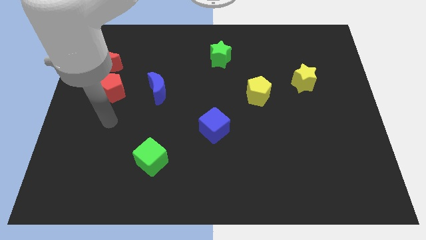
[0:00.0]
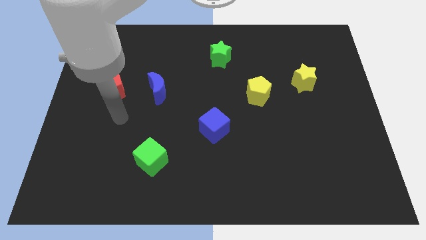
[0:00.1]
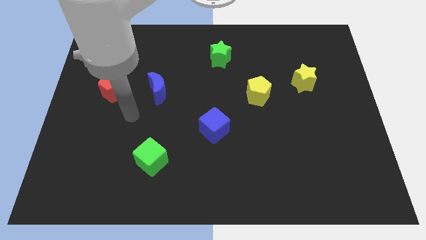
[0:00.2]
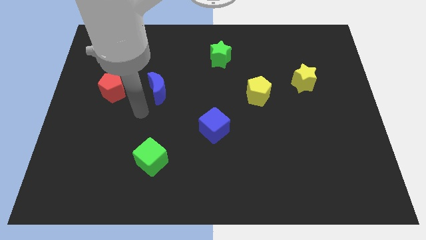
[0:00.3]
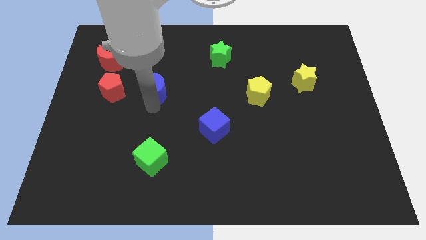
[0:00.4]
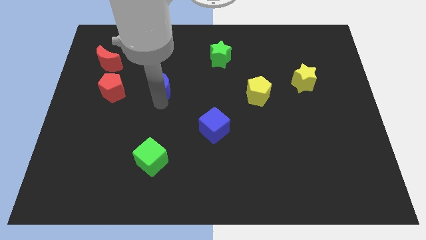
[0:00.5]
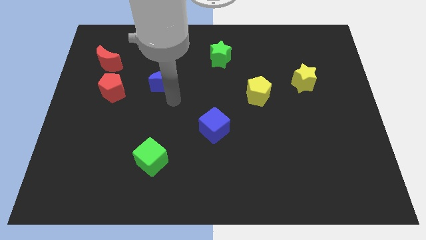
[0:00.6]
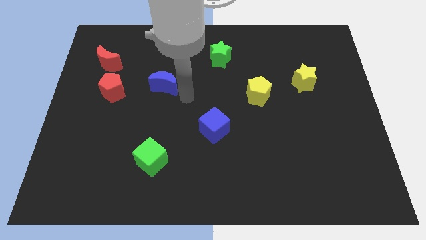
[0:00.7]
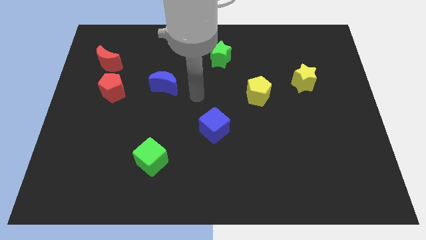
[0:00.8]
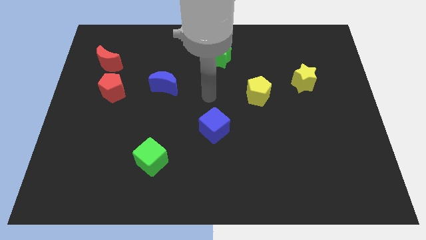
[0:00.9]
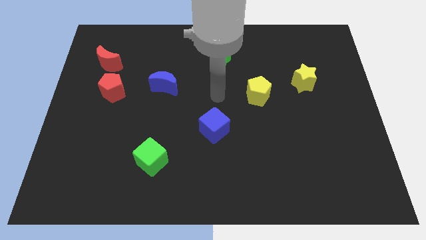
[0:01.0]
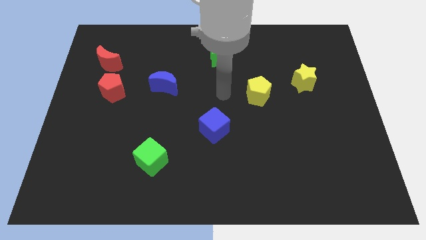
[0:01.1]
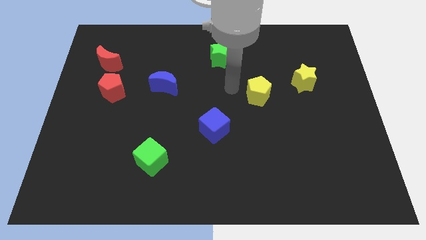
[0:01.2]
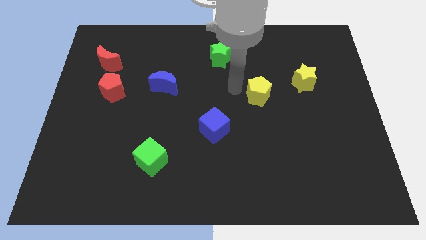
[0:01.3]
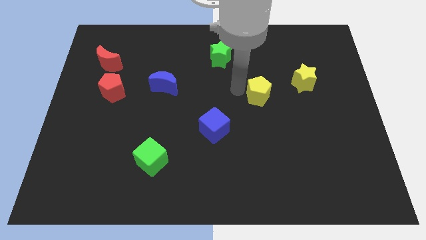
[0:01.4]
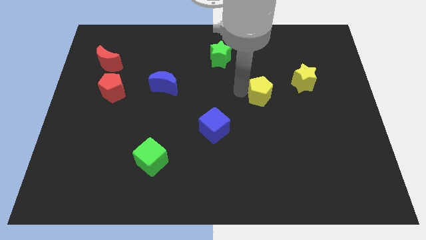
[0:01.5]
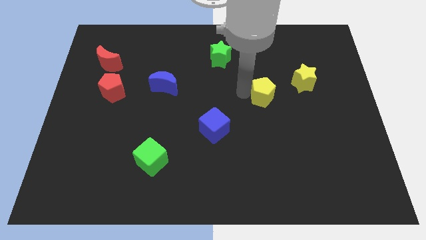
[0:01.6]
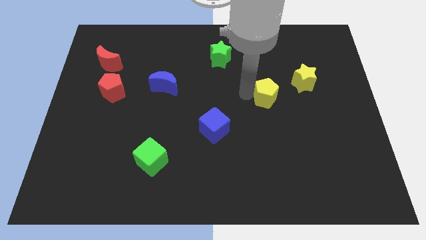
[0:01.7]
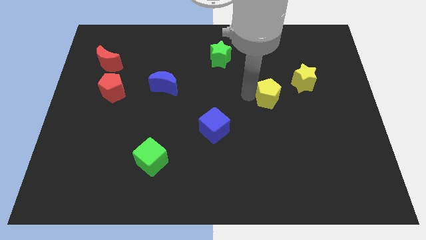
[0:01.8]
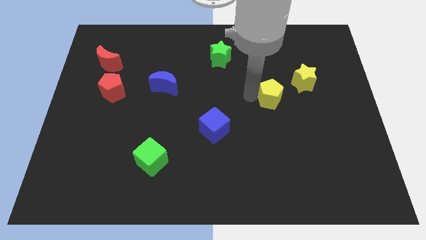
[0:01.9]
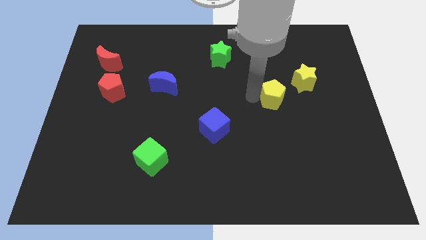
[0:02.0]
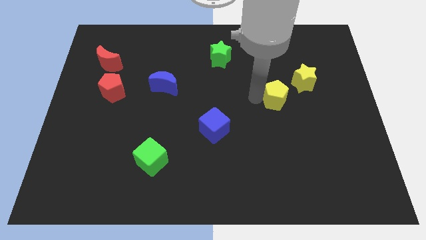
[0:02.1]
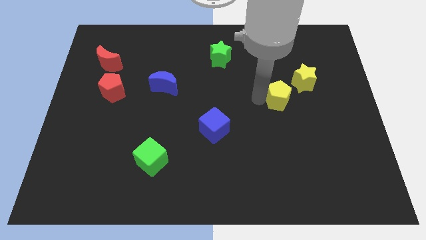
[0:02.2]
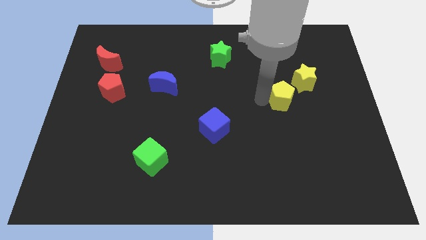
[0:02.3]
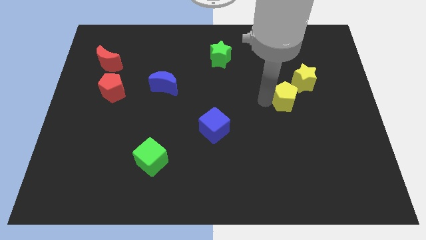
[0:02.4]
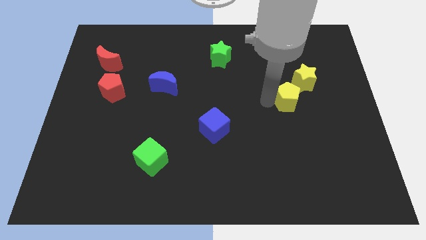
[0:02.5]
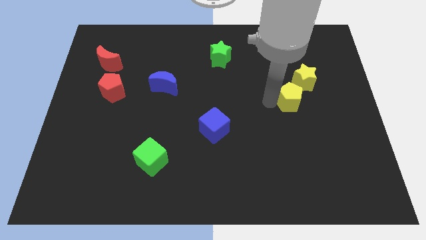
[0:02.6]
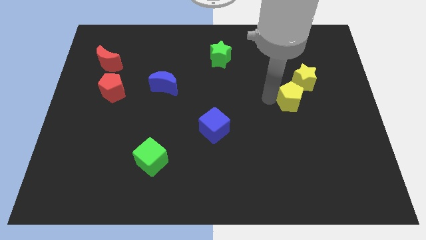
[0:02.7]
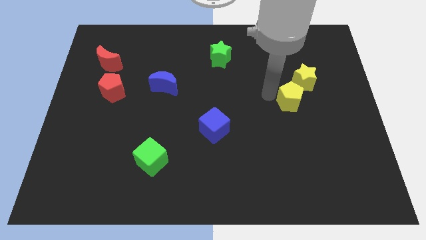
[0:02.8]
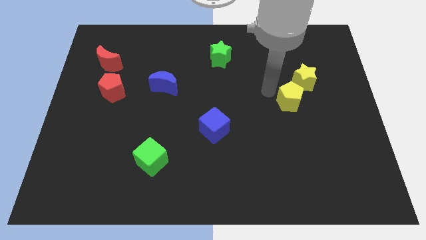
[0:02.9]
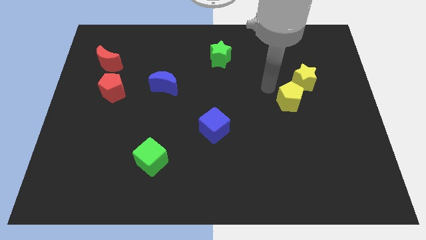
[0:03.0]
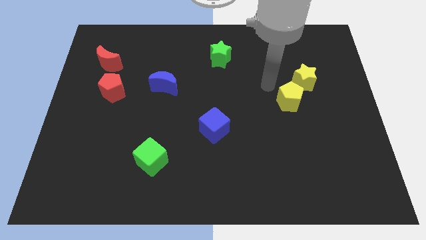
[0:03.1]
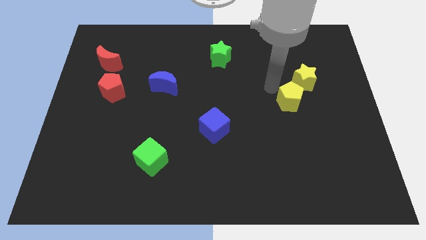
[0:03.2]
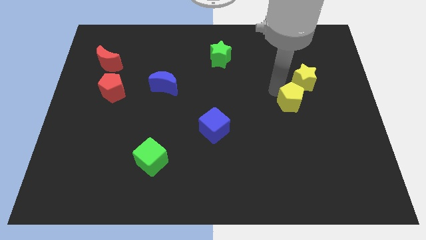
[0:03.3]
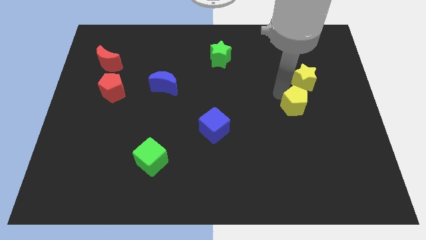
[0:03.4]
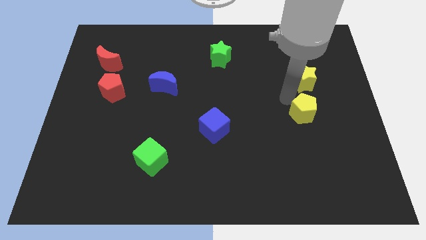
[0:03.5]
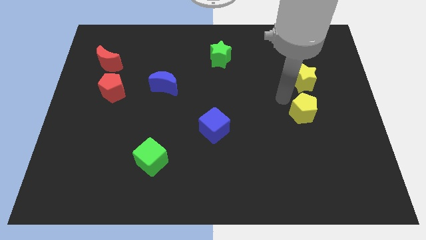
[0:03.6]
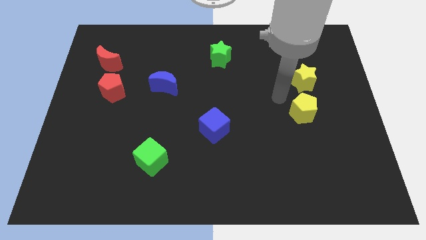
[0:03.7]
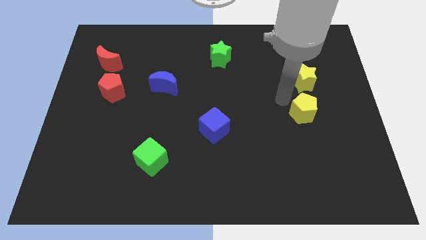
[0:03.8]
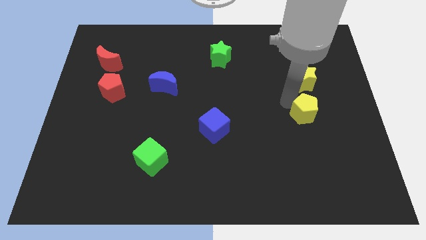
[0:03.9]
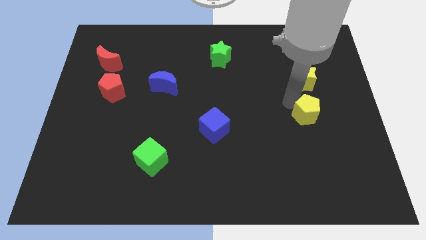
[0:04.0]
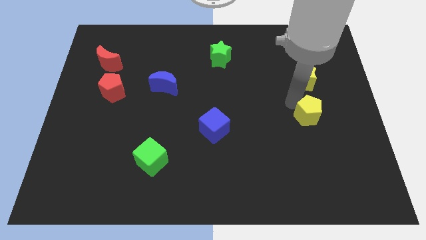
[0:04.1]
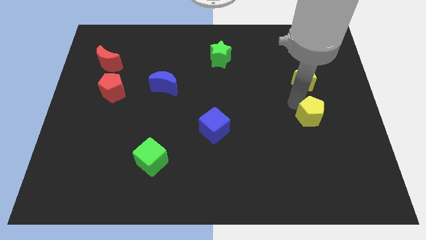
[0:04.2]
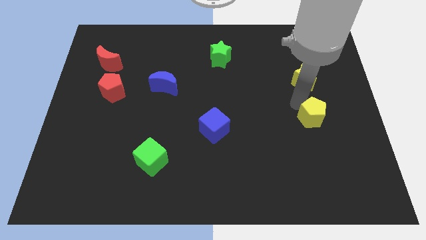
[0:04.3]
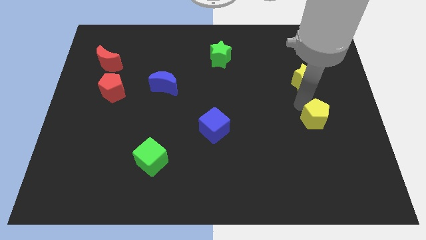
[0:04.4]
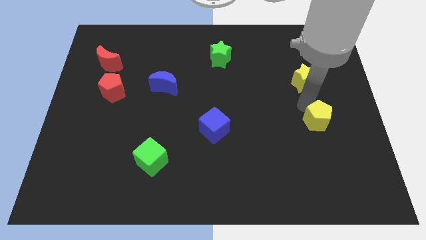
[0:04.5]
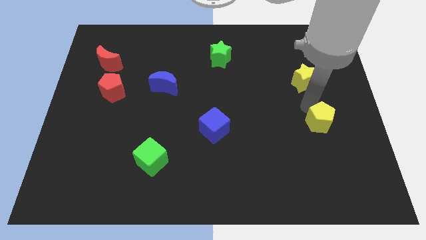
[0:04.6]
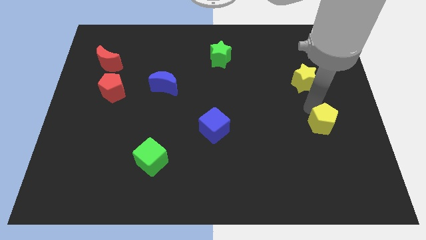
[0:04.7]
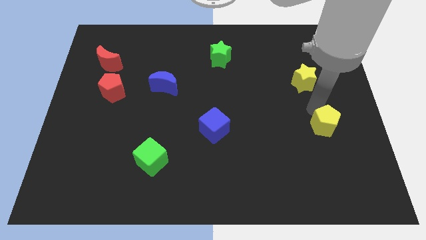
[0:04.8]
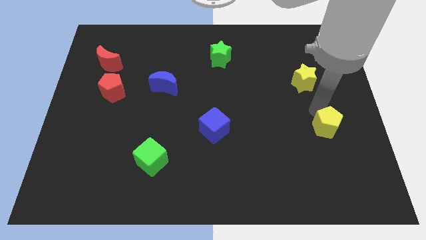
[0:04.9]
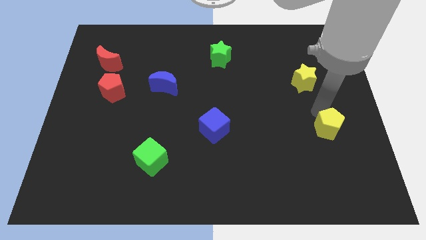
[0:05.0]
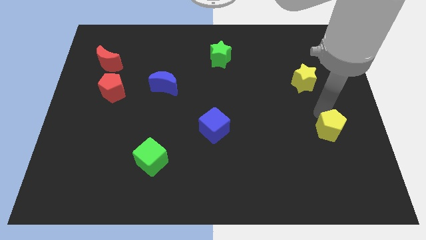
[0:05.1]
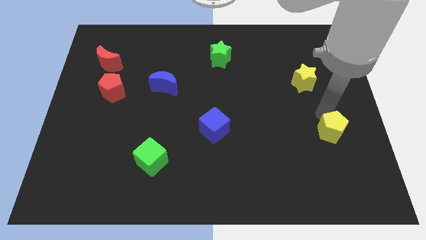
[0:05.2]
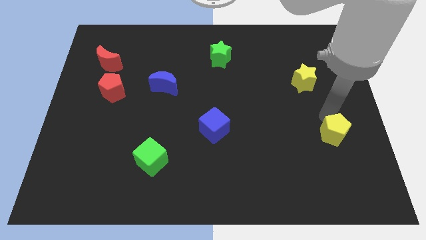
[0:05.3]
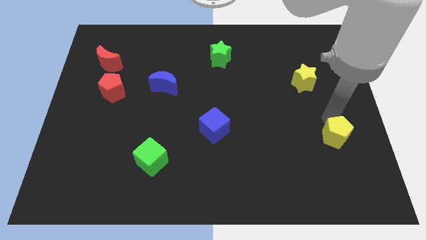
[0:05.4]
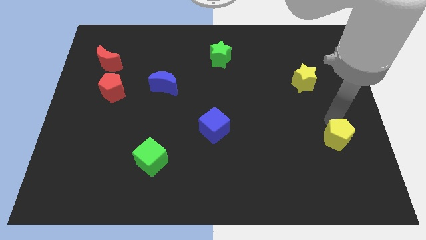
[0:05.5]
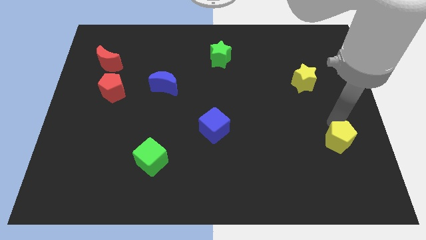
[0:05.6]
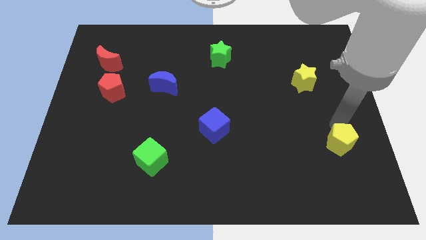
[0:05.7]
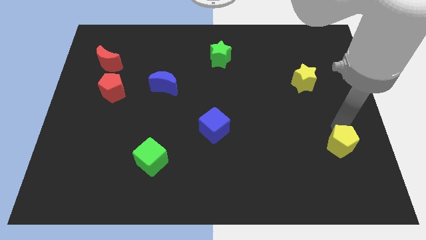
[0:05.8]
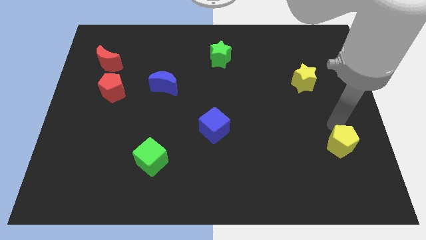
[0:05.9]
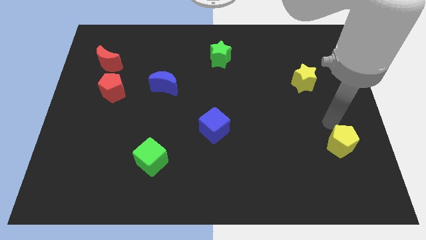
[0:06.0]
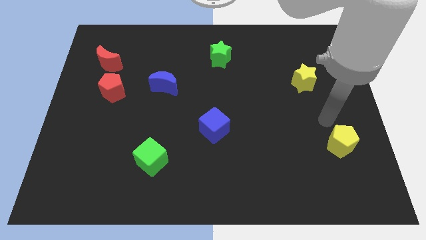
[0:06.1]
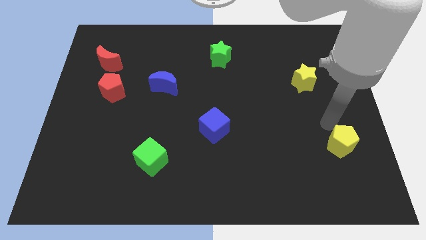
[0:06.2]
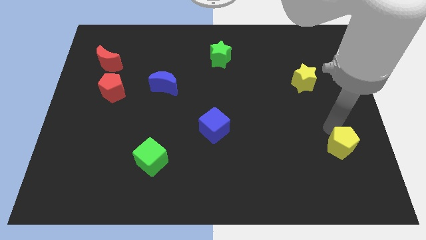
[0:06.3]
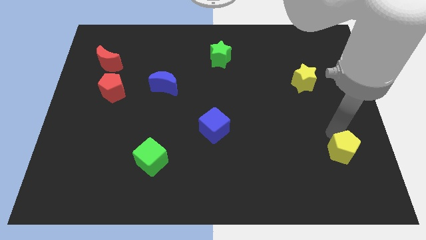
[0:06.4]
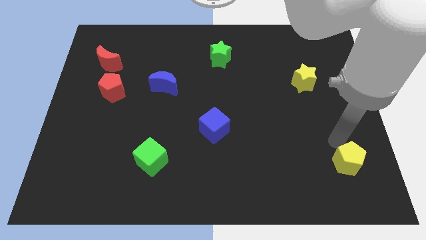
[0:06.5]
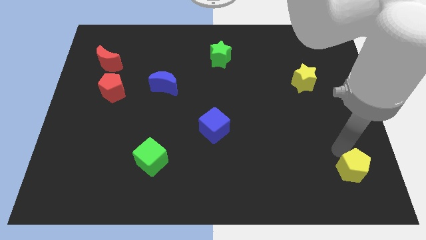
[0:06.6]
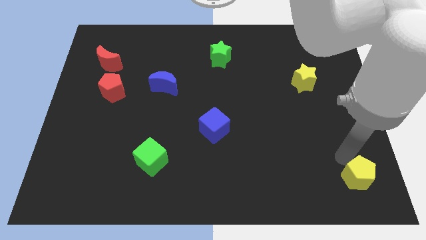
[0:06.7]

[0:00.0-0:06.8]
move the yellow pentagon to the bottom right corner
